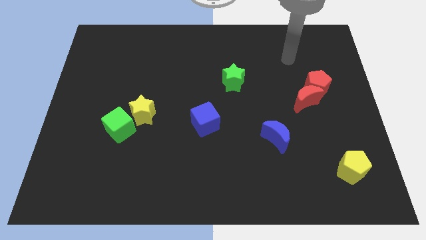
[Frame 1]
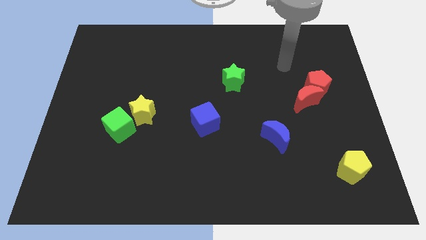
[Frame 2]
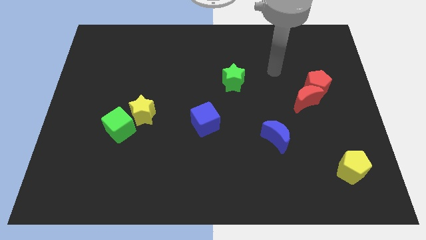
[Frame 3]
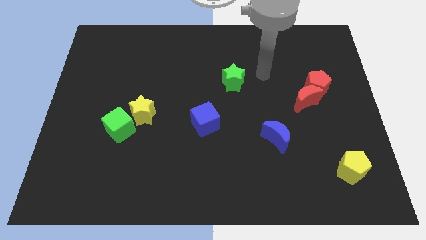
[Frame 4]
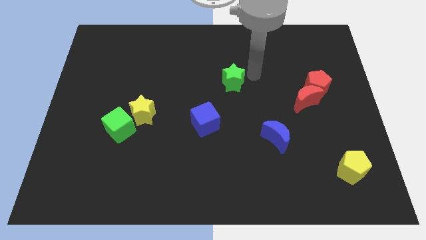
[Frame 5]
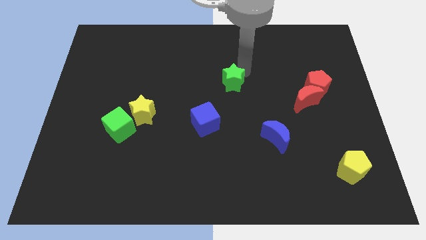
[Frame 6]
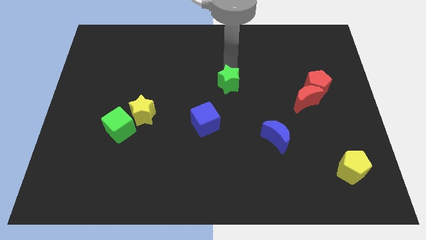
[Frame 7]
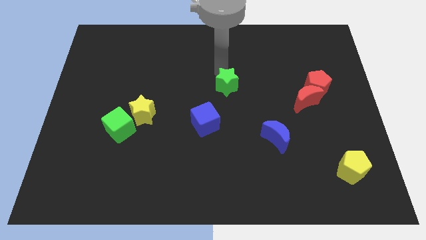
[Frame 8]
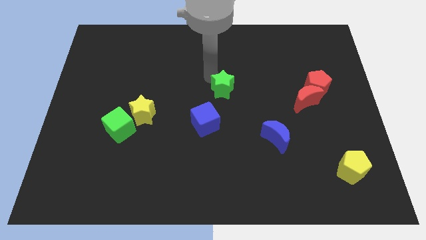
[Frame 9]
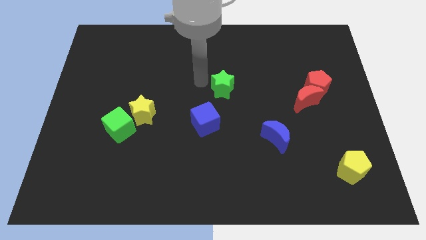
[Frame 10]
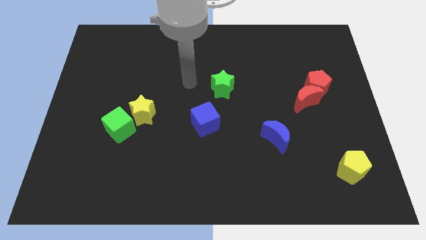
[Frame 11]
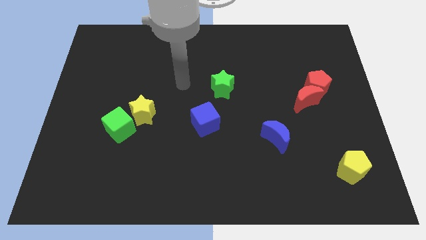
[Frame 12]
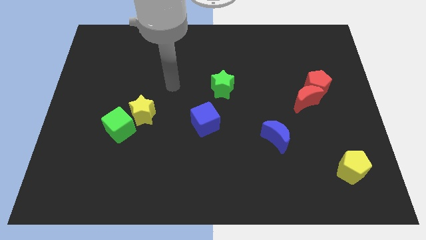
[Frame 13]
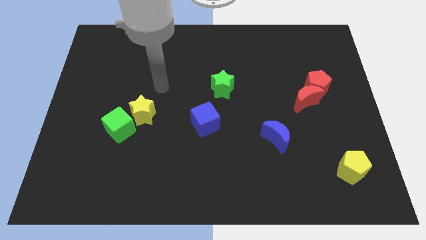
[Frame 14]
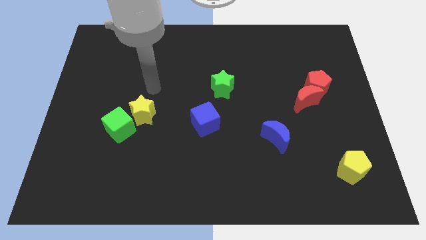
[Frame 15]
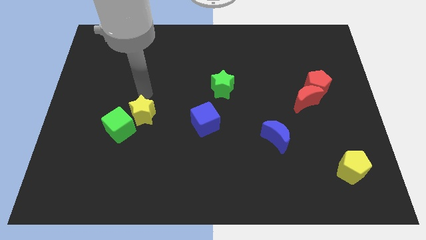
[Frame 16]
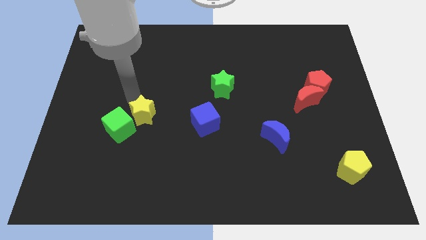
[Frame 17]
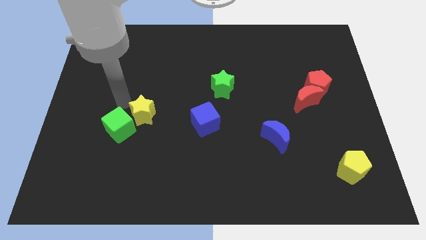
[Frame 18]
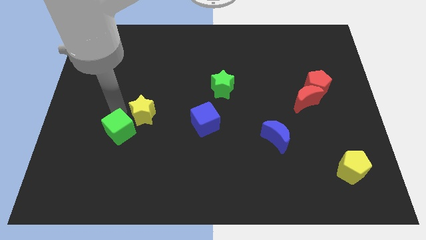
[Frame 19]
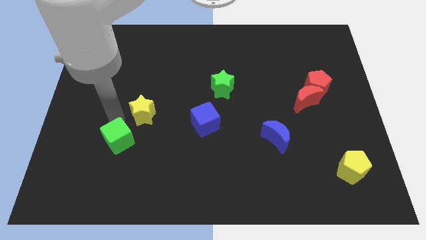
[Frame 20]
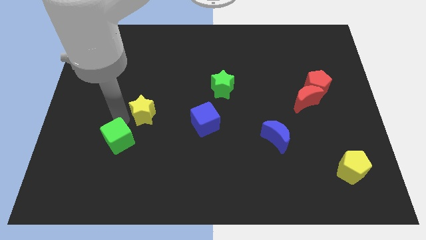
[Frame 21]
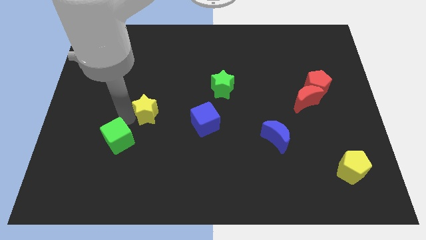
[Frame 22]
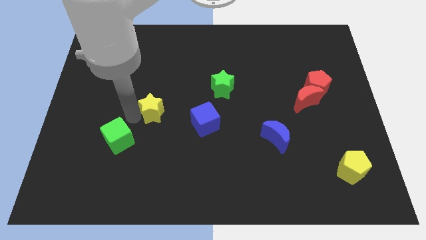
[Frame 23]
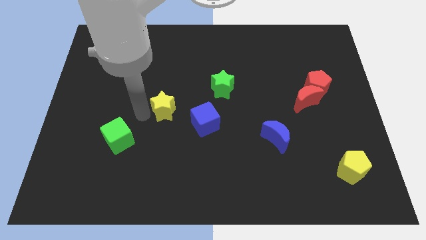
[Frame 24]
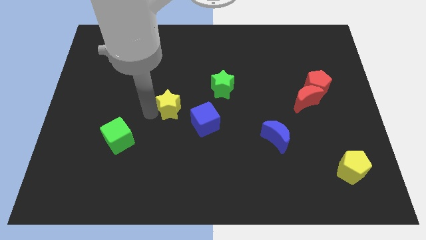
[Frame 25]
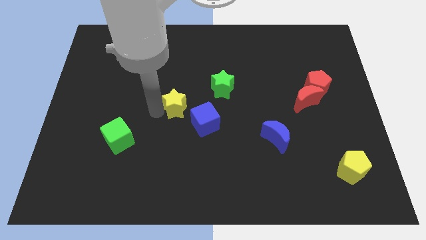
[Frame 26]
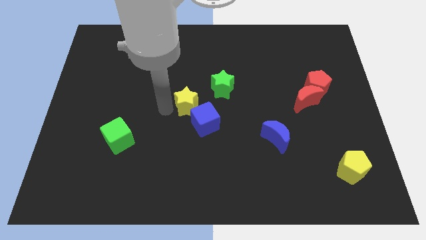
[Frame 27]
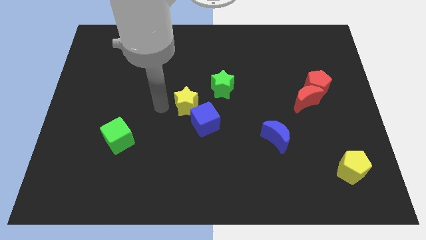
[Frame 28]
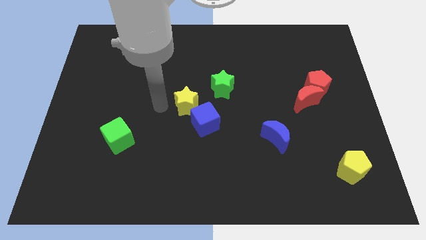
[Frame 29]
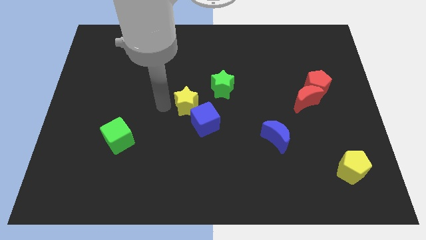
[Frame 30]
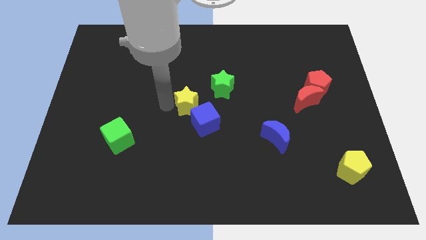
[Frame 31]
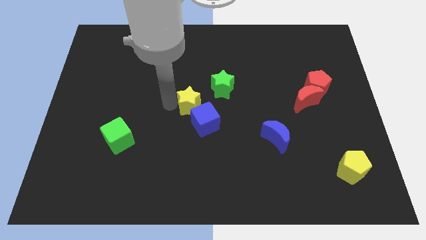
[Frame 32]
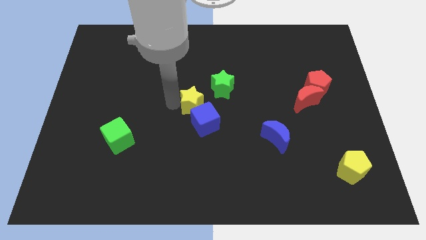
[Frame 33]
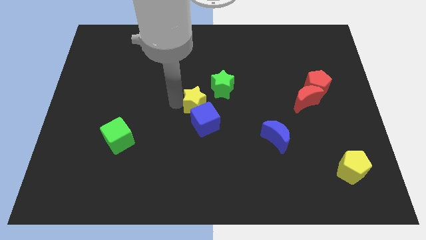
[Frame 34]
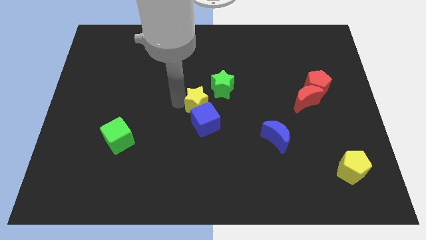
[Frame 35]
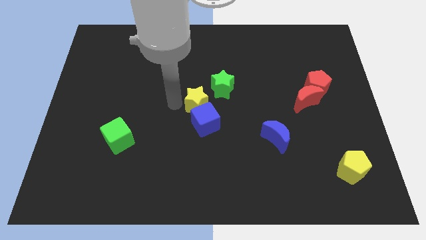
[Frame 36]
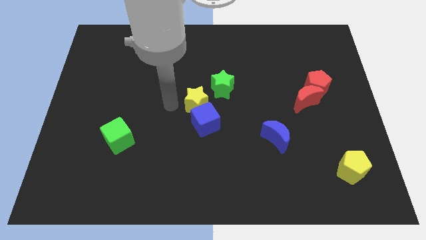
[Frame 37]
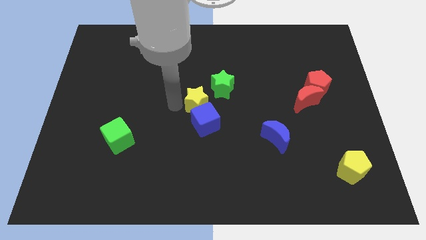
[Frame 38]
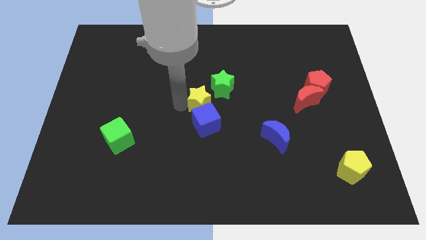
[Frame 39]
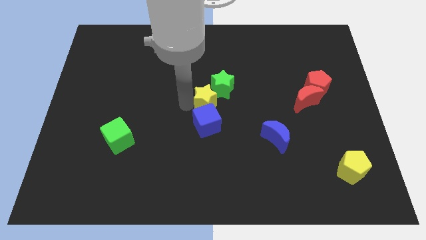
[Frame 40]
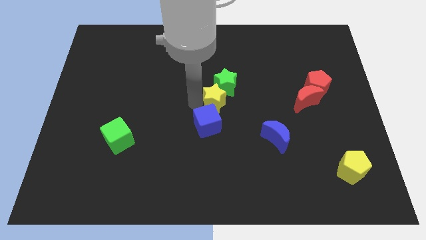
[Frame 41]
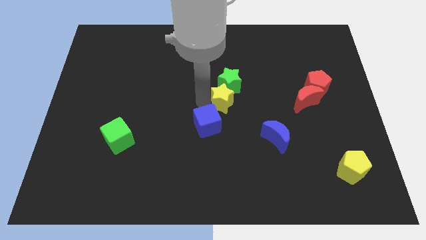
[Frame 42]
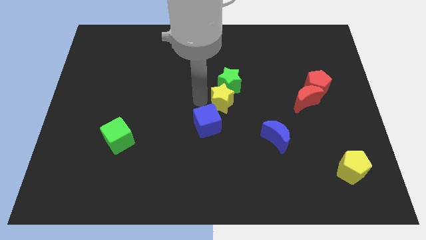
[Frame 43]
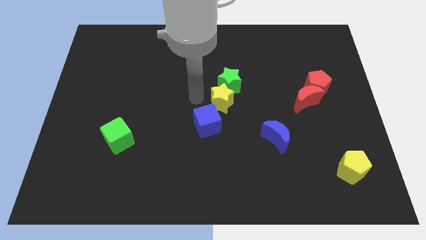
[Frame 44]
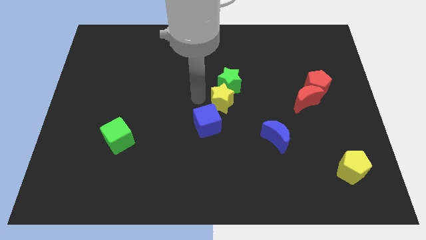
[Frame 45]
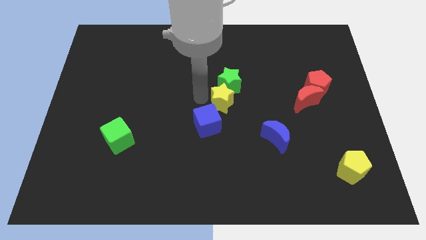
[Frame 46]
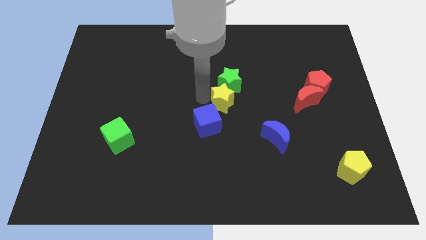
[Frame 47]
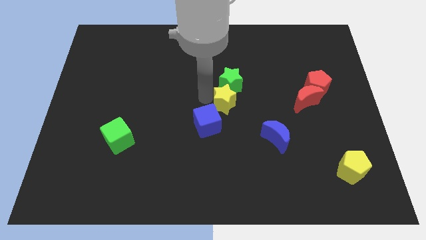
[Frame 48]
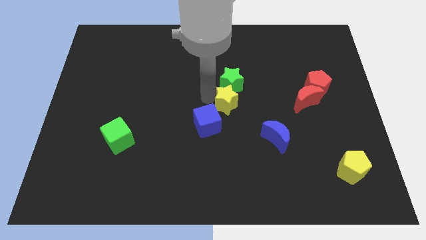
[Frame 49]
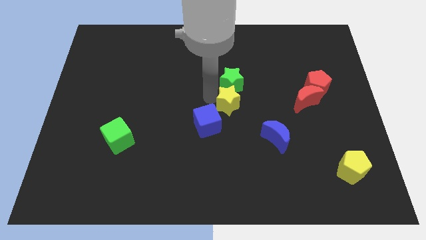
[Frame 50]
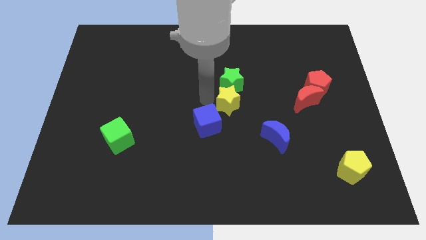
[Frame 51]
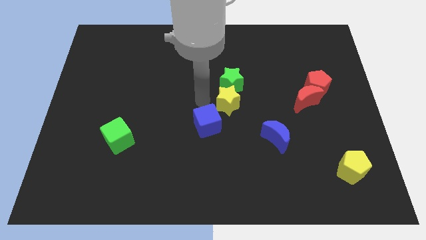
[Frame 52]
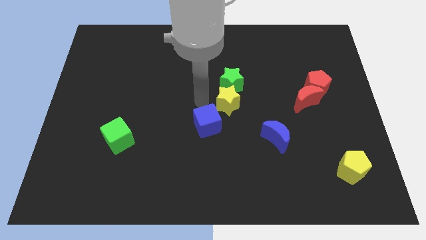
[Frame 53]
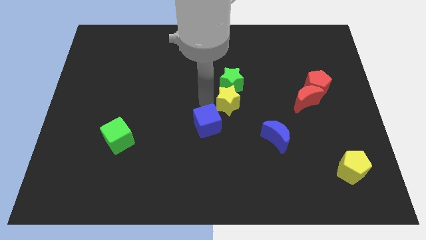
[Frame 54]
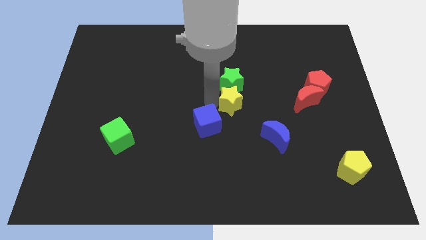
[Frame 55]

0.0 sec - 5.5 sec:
move the yellow star to the right

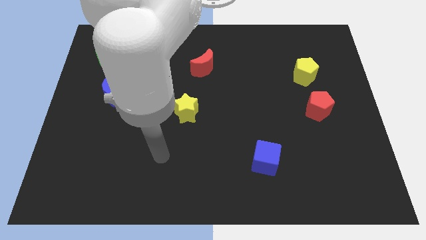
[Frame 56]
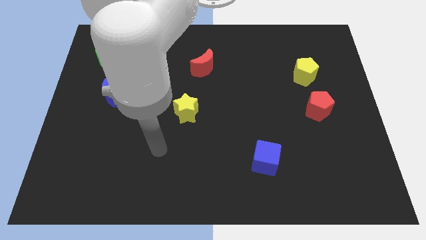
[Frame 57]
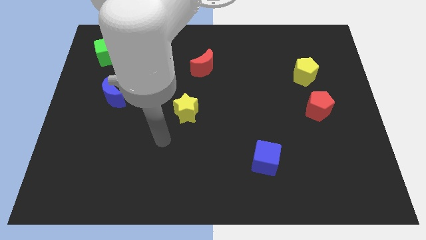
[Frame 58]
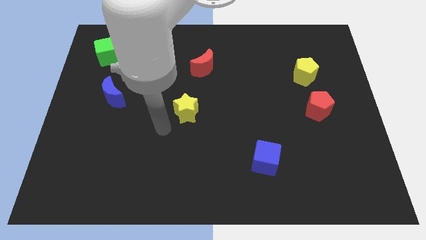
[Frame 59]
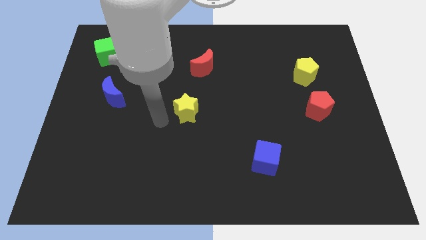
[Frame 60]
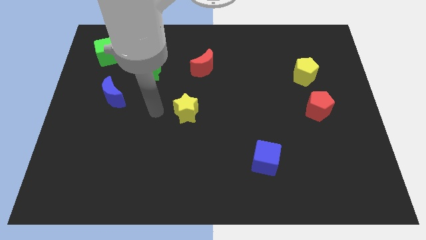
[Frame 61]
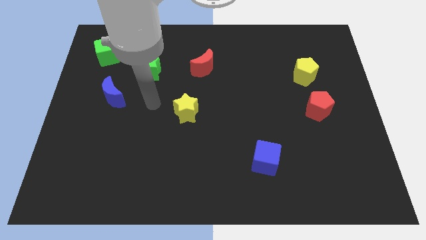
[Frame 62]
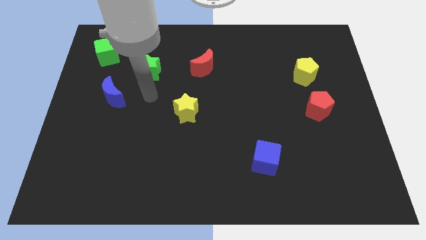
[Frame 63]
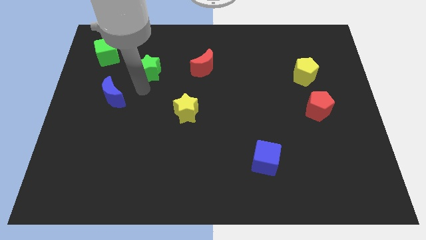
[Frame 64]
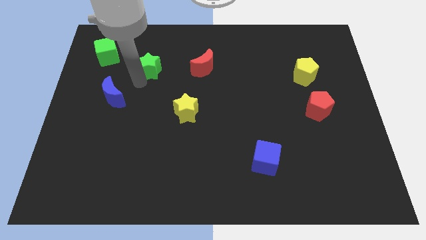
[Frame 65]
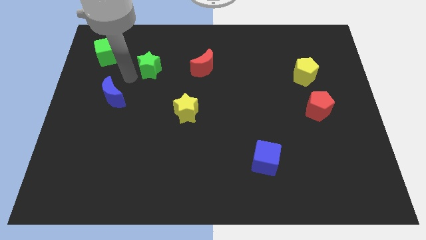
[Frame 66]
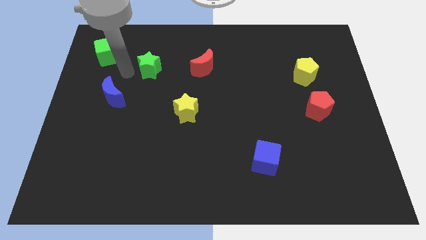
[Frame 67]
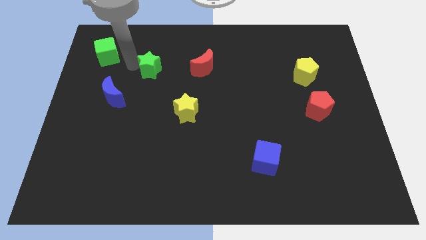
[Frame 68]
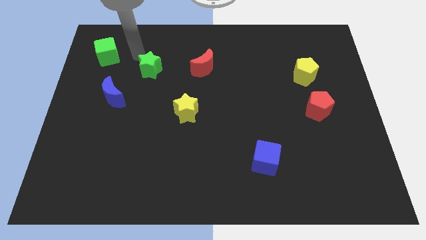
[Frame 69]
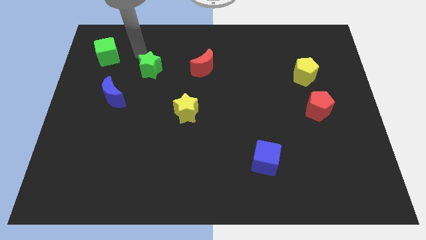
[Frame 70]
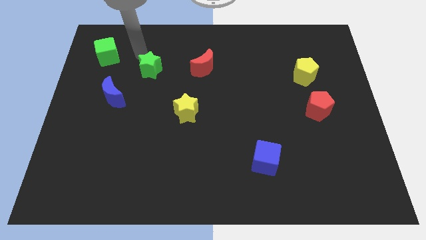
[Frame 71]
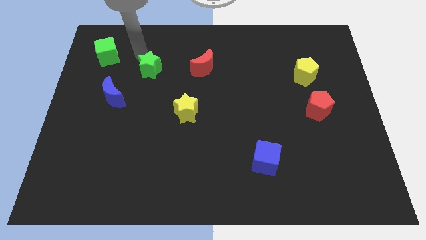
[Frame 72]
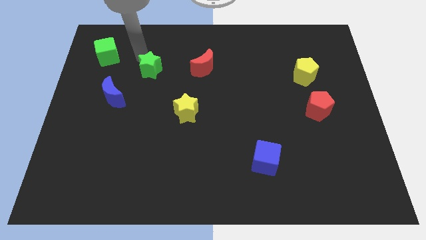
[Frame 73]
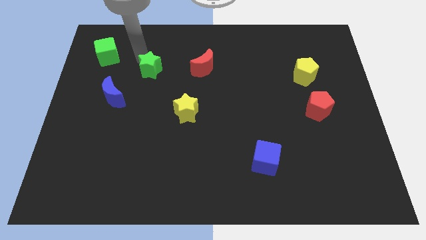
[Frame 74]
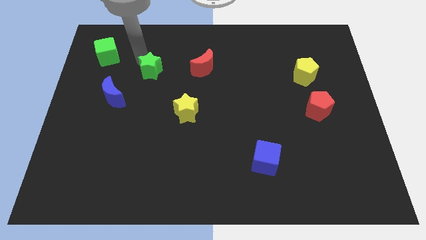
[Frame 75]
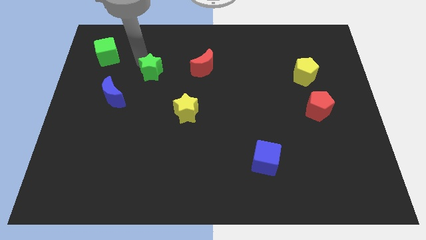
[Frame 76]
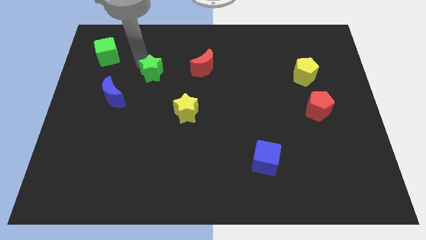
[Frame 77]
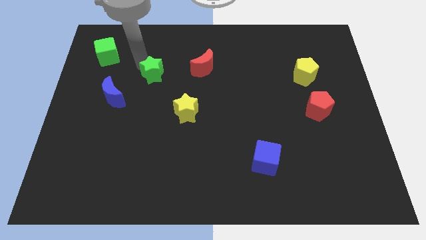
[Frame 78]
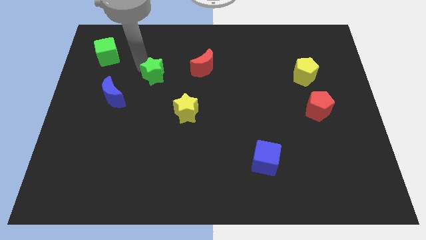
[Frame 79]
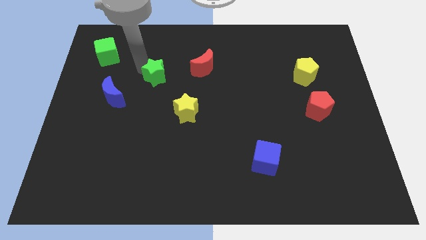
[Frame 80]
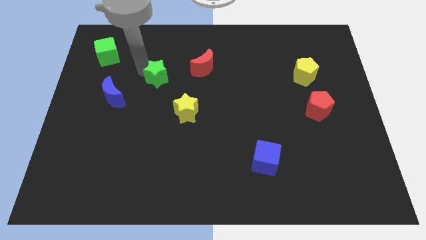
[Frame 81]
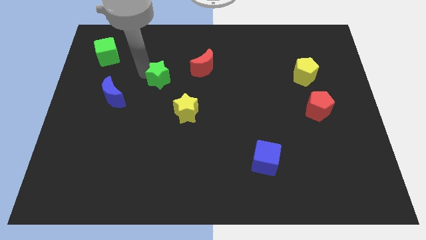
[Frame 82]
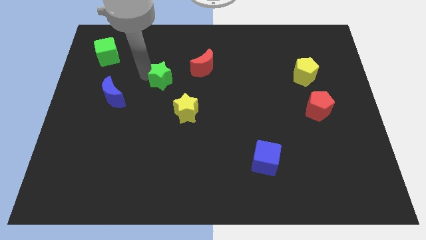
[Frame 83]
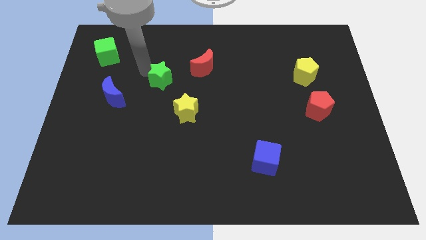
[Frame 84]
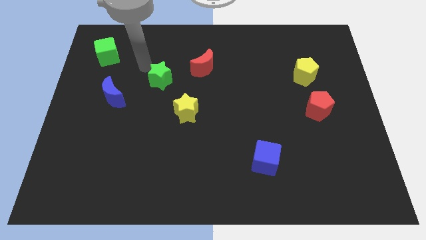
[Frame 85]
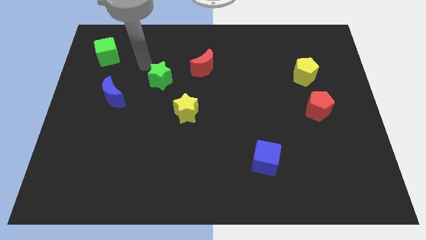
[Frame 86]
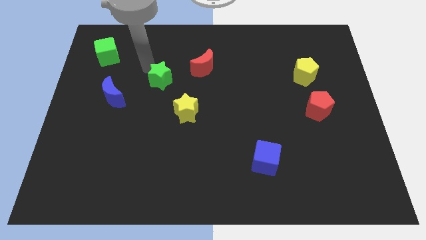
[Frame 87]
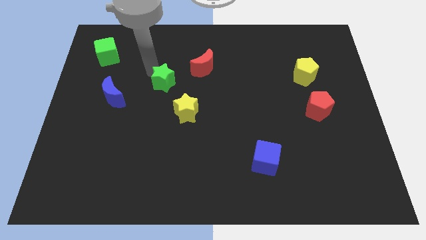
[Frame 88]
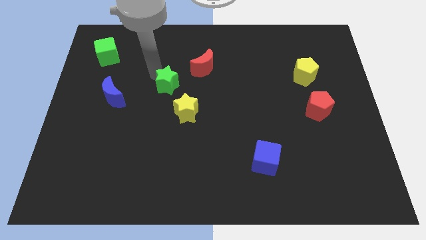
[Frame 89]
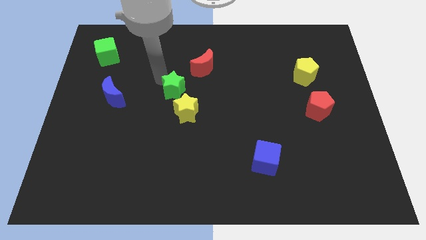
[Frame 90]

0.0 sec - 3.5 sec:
slightly slide the green star down and then to the right
